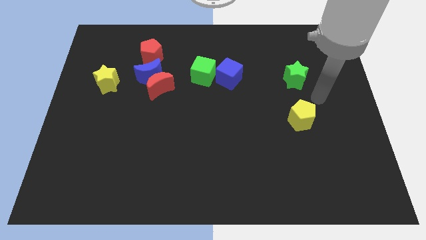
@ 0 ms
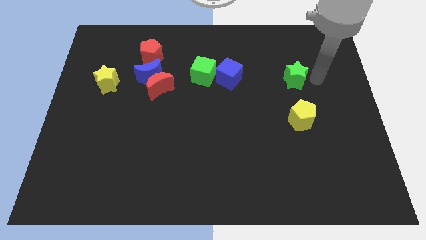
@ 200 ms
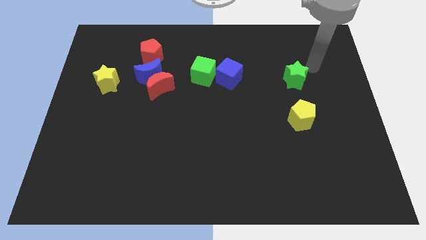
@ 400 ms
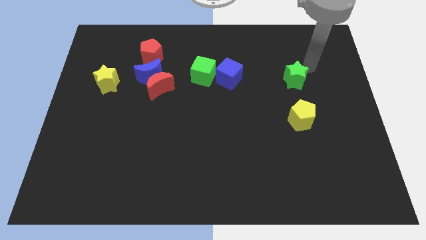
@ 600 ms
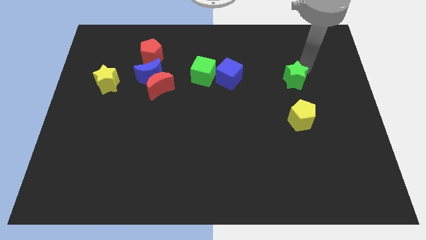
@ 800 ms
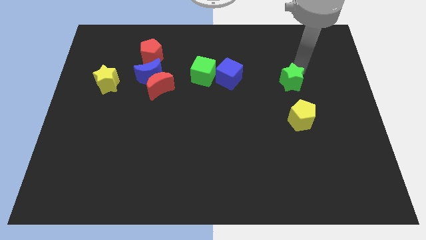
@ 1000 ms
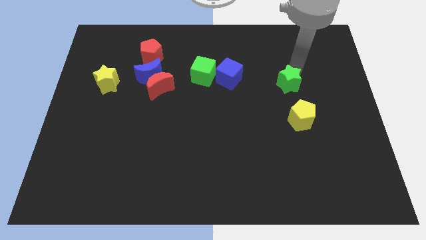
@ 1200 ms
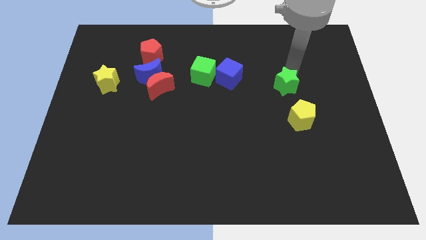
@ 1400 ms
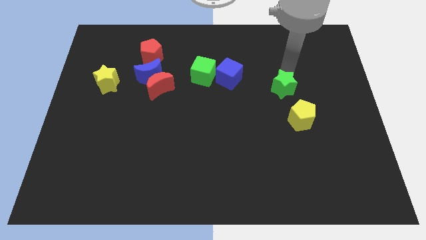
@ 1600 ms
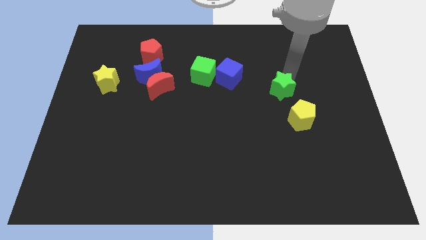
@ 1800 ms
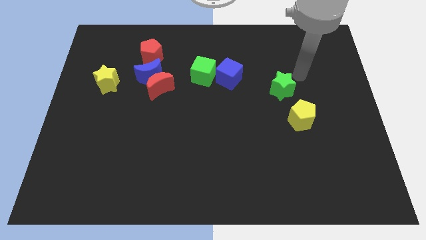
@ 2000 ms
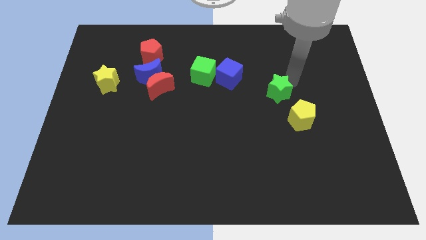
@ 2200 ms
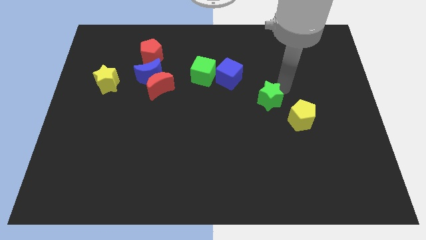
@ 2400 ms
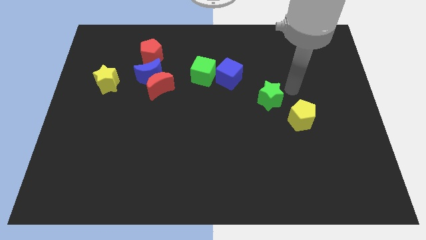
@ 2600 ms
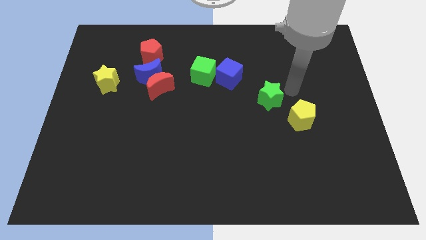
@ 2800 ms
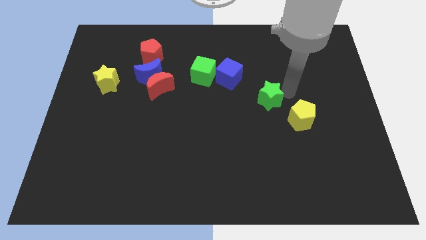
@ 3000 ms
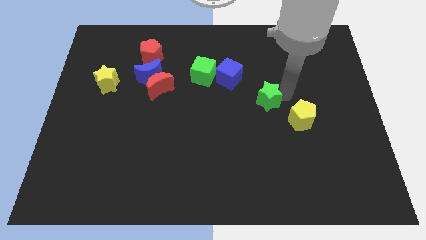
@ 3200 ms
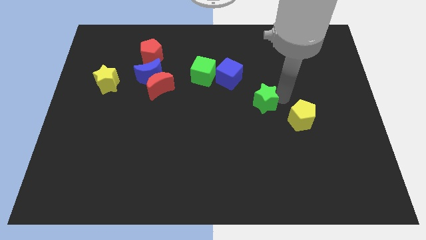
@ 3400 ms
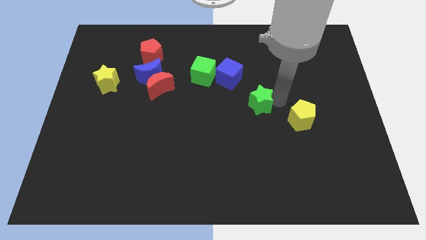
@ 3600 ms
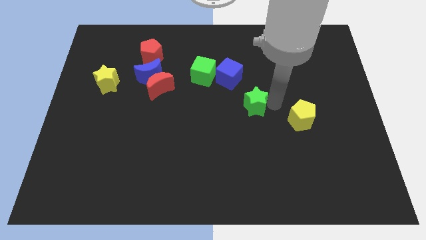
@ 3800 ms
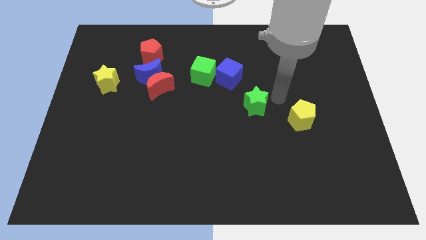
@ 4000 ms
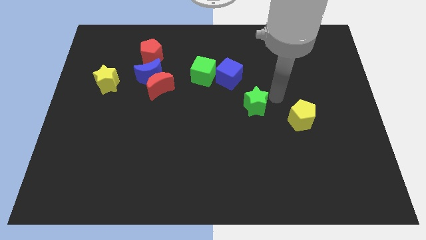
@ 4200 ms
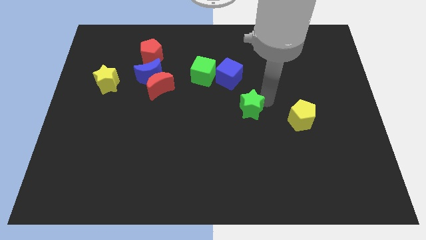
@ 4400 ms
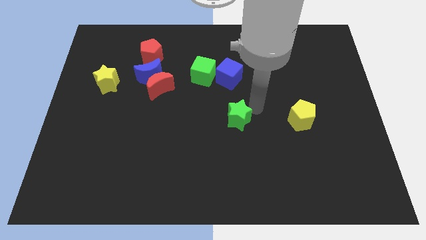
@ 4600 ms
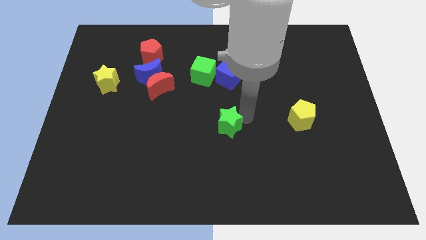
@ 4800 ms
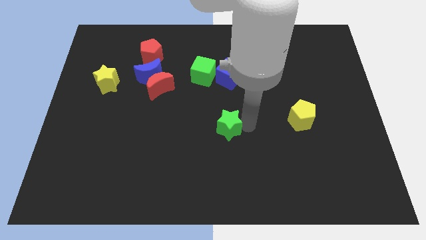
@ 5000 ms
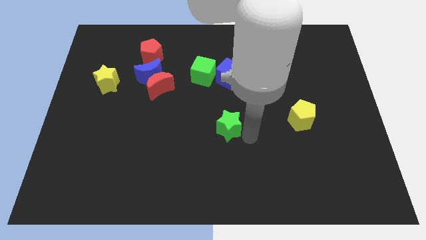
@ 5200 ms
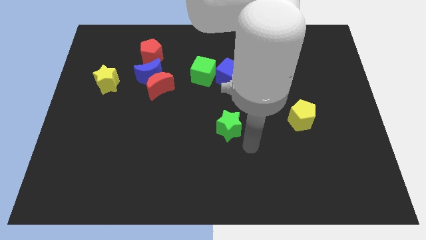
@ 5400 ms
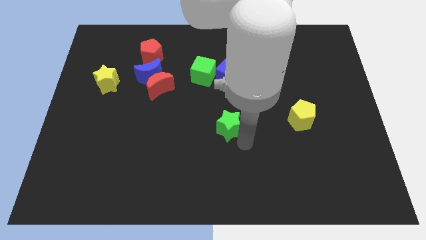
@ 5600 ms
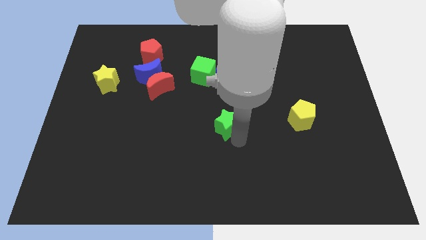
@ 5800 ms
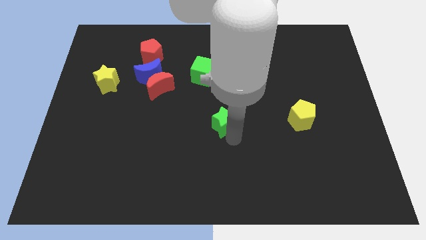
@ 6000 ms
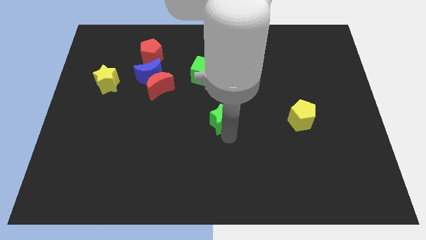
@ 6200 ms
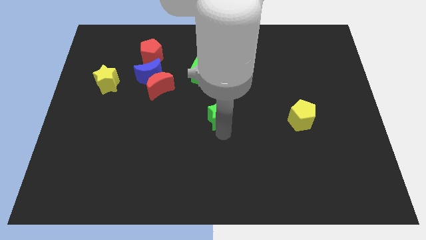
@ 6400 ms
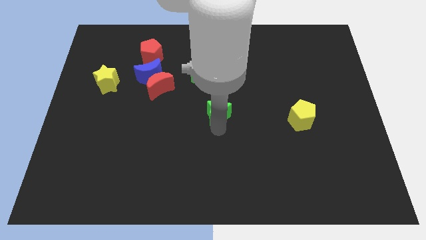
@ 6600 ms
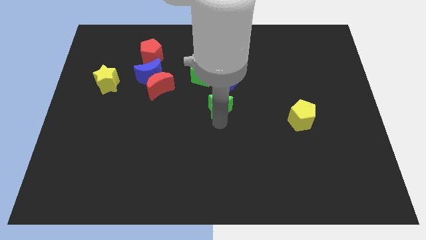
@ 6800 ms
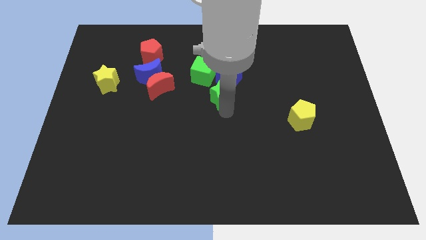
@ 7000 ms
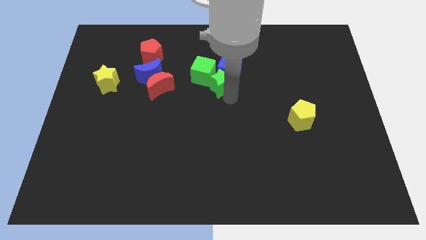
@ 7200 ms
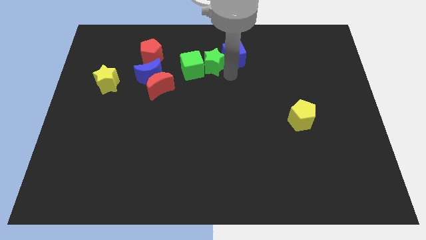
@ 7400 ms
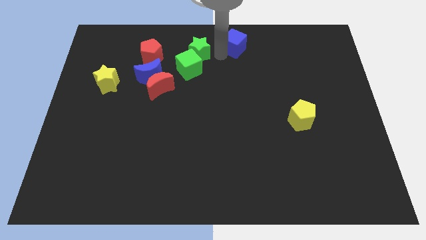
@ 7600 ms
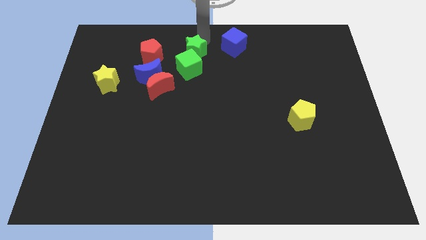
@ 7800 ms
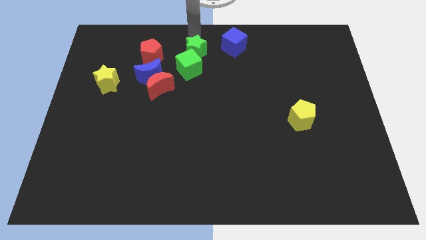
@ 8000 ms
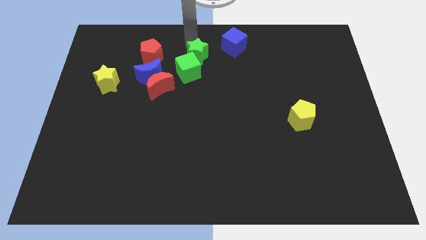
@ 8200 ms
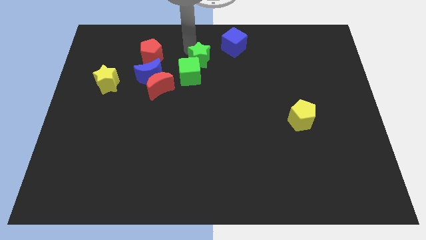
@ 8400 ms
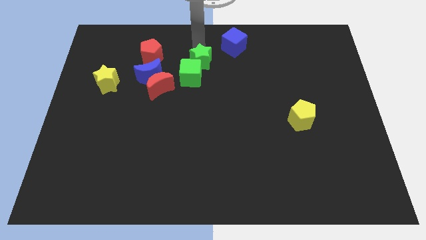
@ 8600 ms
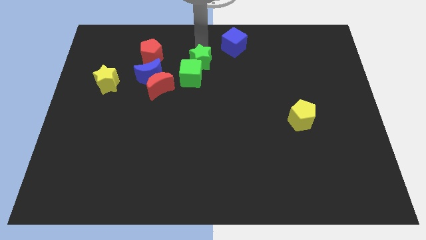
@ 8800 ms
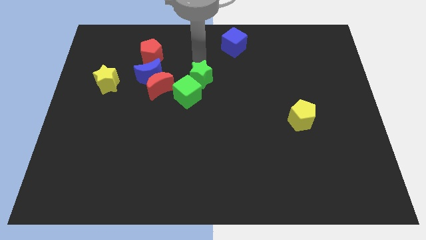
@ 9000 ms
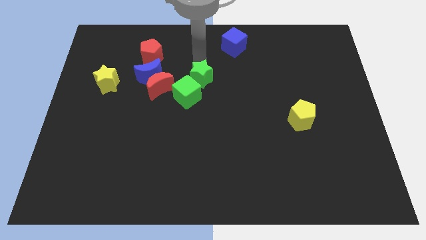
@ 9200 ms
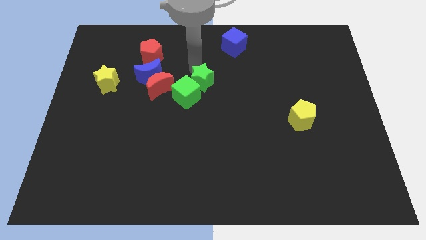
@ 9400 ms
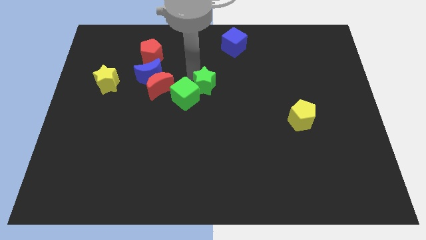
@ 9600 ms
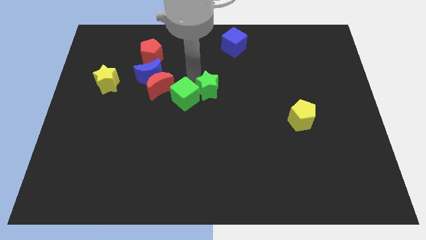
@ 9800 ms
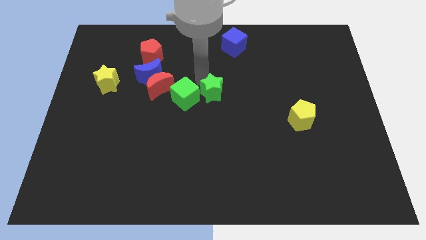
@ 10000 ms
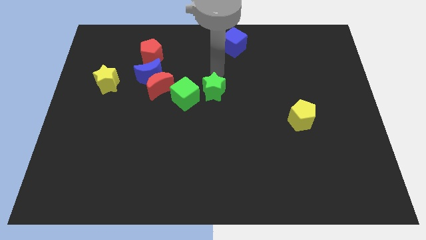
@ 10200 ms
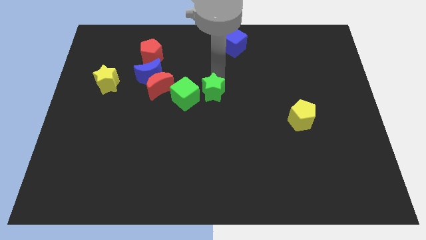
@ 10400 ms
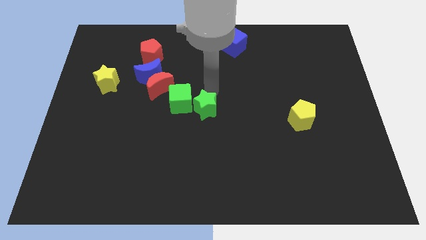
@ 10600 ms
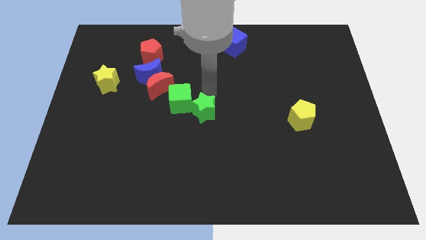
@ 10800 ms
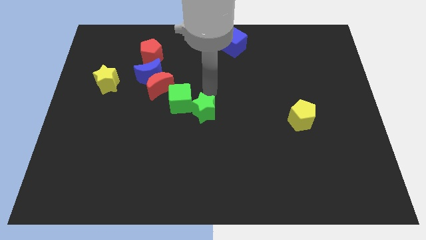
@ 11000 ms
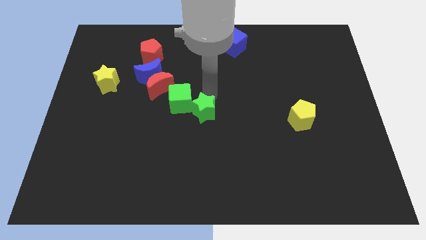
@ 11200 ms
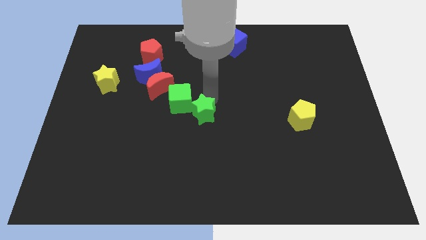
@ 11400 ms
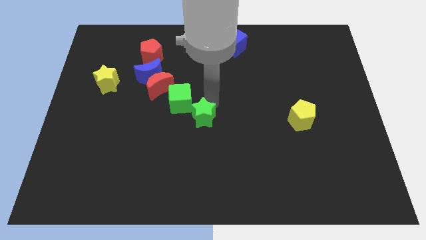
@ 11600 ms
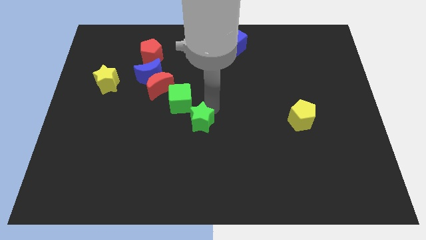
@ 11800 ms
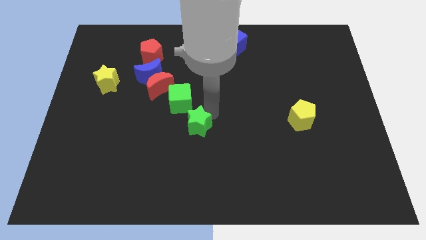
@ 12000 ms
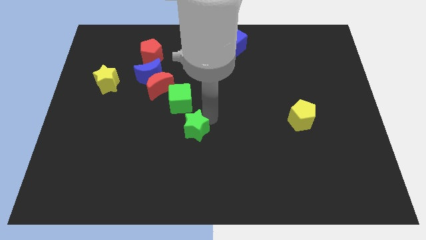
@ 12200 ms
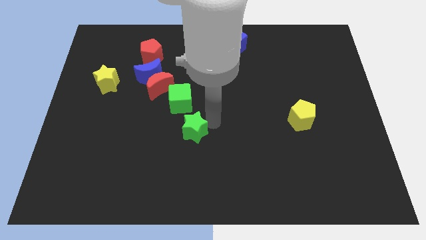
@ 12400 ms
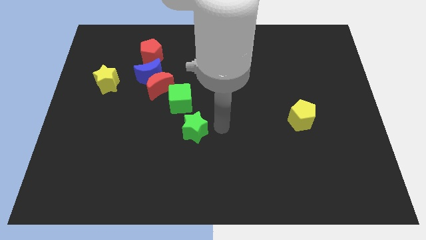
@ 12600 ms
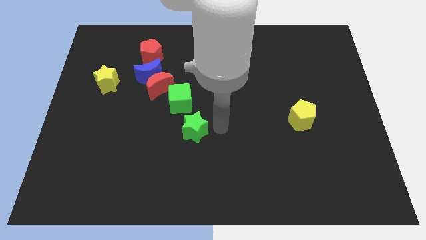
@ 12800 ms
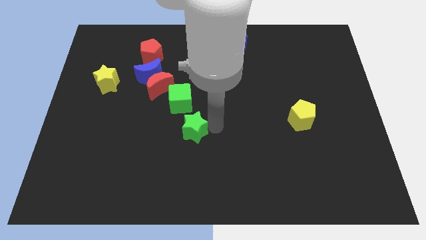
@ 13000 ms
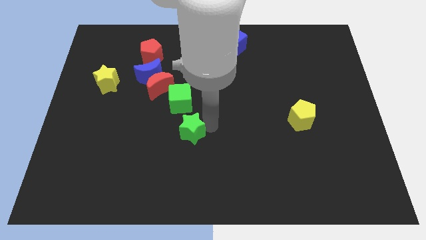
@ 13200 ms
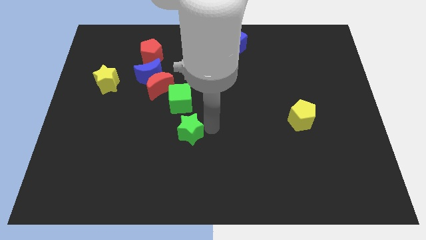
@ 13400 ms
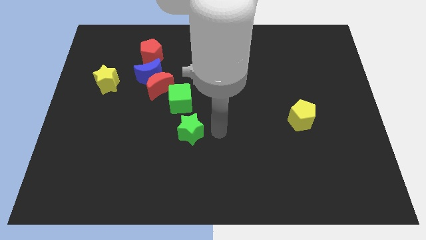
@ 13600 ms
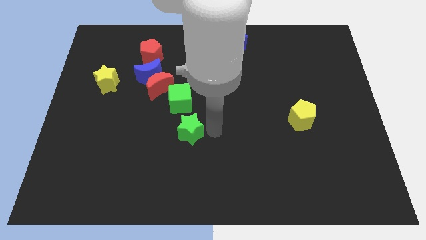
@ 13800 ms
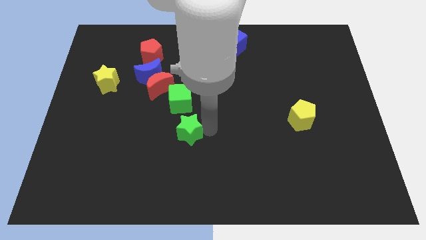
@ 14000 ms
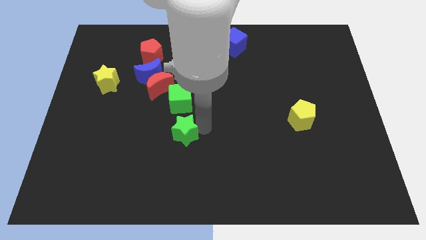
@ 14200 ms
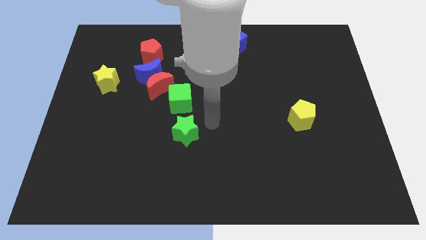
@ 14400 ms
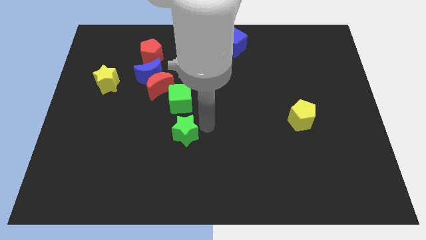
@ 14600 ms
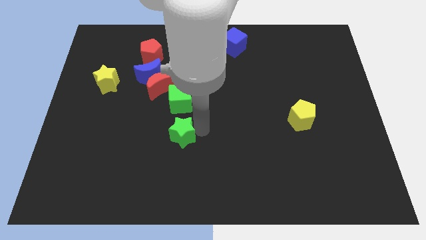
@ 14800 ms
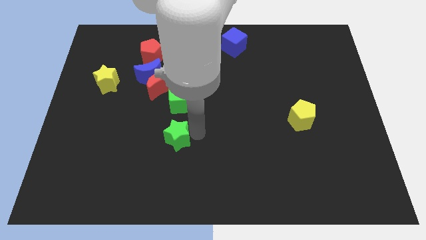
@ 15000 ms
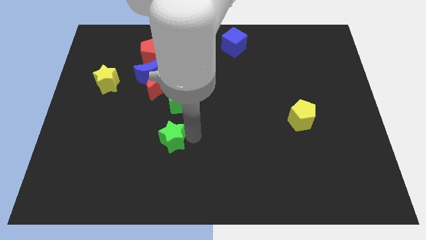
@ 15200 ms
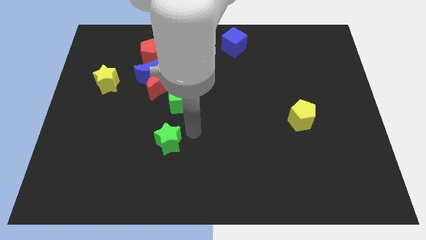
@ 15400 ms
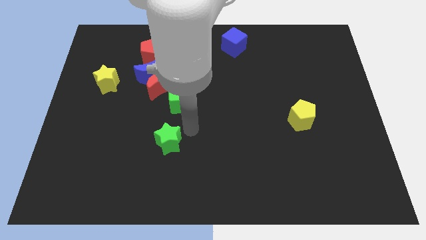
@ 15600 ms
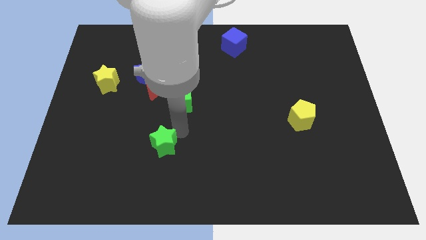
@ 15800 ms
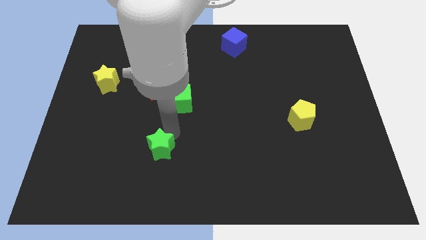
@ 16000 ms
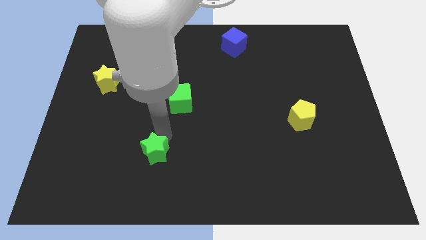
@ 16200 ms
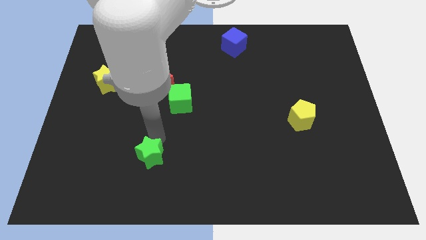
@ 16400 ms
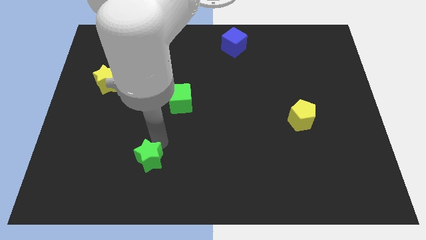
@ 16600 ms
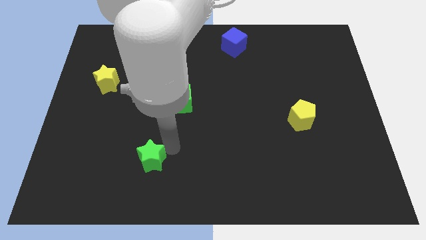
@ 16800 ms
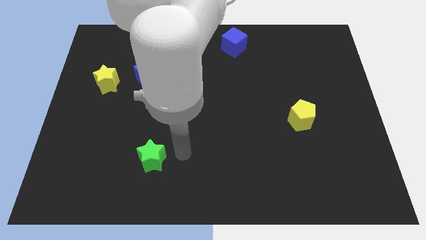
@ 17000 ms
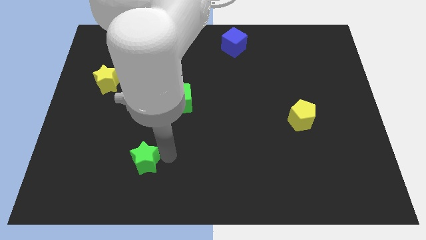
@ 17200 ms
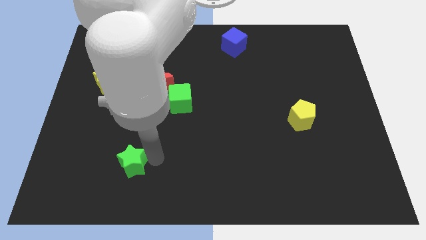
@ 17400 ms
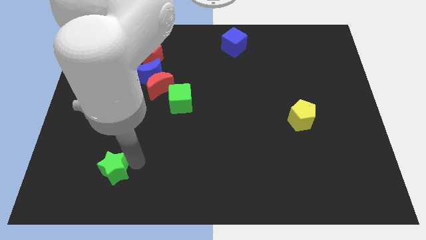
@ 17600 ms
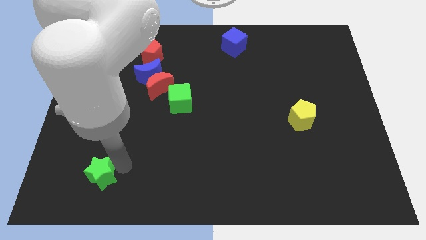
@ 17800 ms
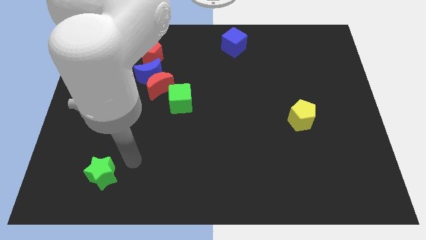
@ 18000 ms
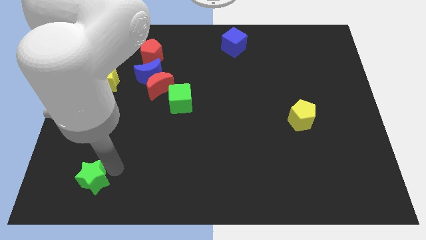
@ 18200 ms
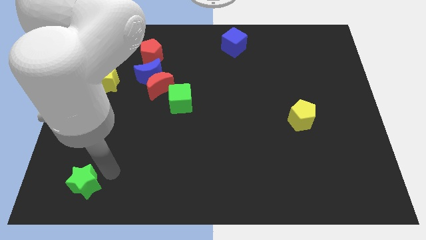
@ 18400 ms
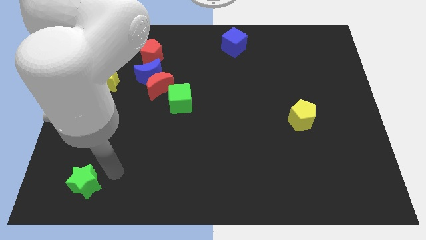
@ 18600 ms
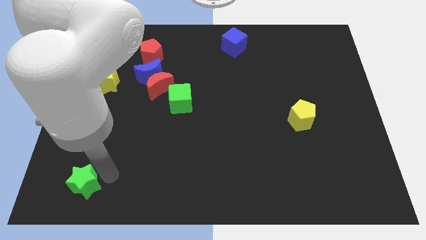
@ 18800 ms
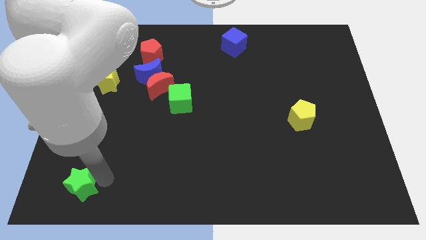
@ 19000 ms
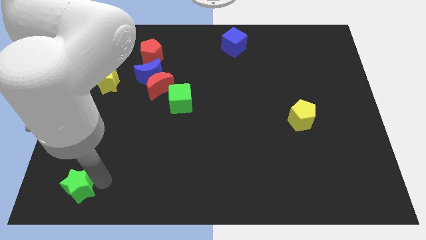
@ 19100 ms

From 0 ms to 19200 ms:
slide the green star to the bottom left of the board
